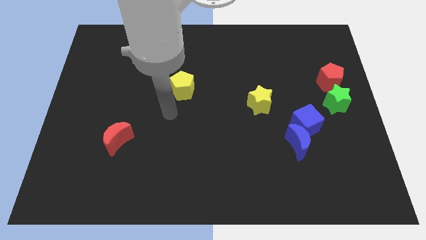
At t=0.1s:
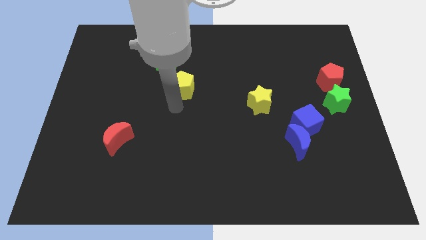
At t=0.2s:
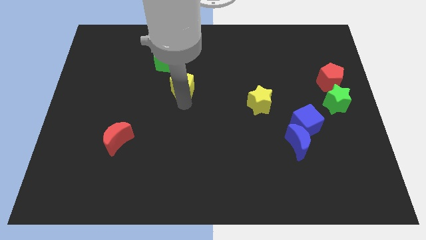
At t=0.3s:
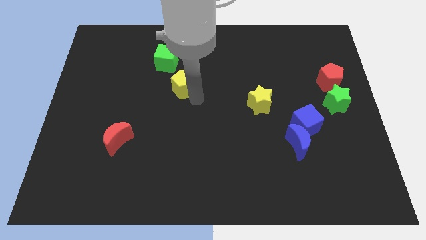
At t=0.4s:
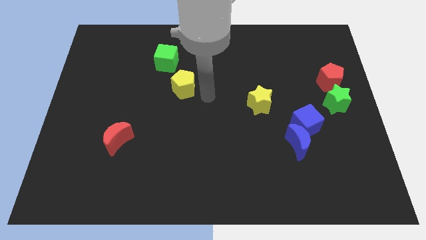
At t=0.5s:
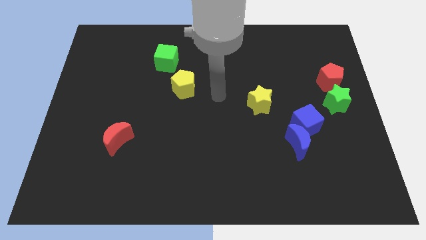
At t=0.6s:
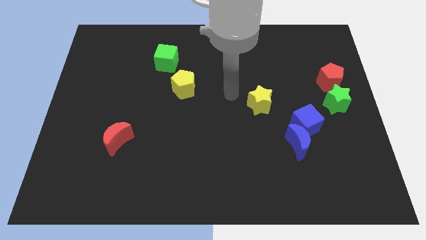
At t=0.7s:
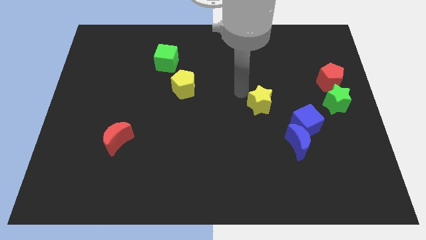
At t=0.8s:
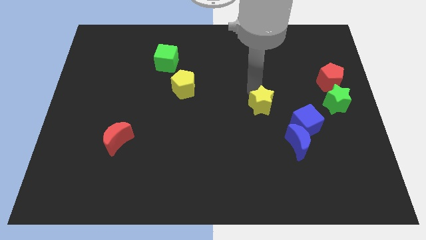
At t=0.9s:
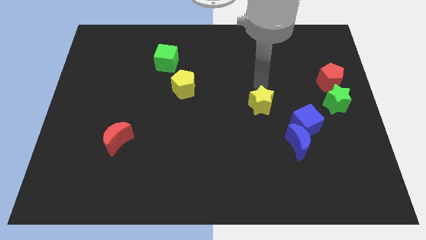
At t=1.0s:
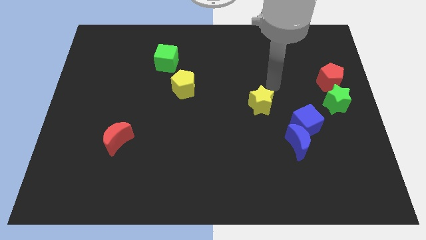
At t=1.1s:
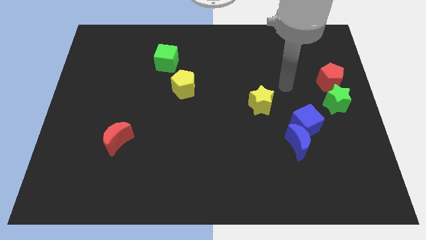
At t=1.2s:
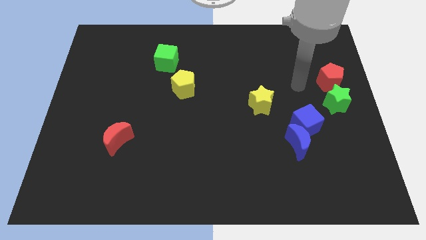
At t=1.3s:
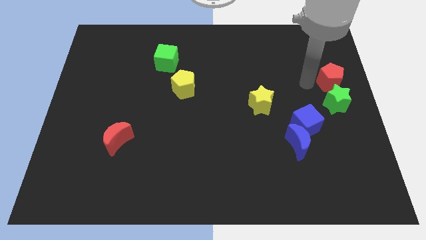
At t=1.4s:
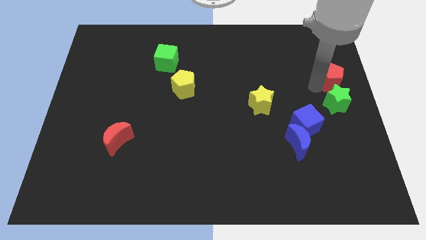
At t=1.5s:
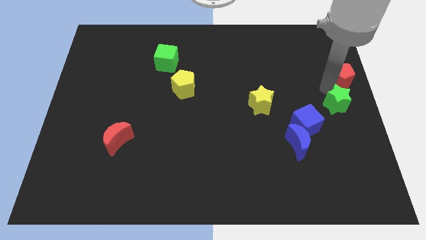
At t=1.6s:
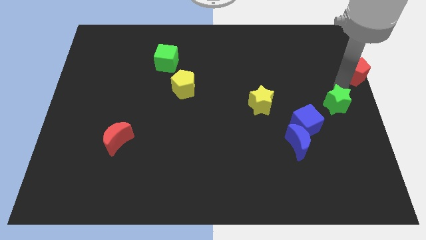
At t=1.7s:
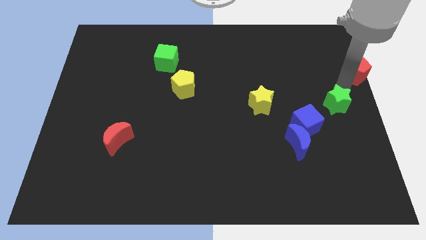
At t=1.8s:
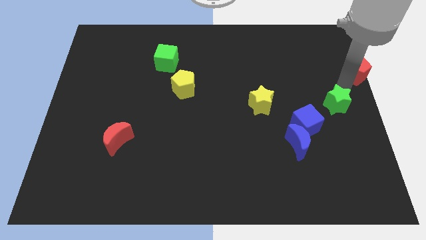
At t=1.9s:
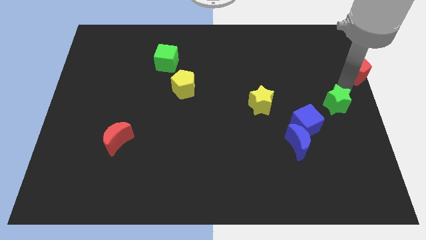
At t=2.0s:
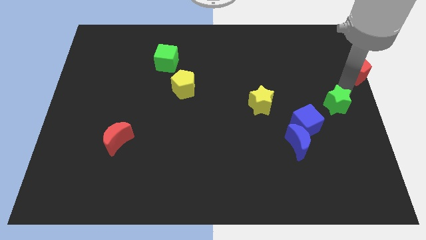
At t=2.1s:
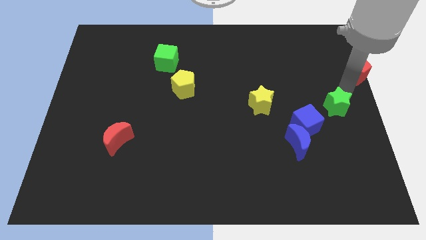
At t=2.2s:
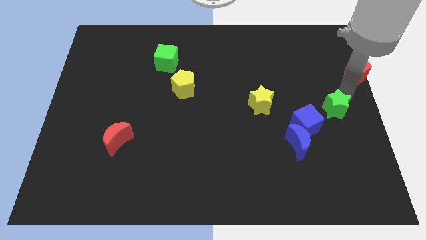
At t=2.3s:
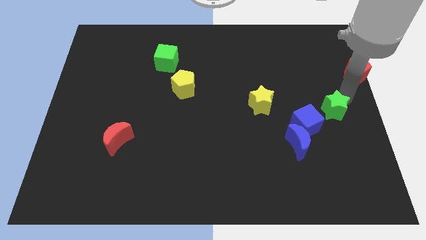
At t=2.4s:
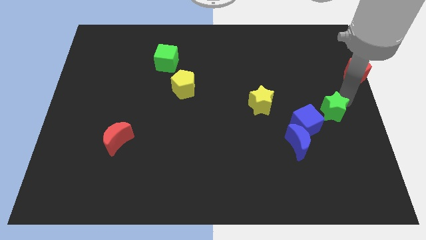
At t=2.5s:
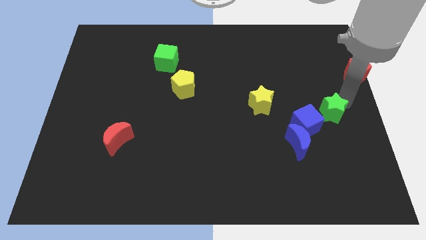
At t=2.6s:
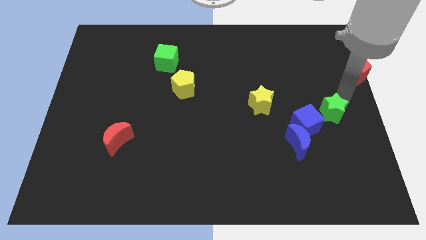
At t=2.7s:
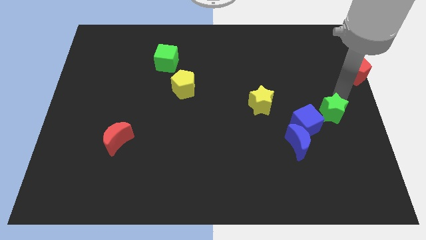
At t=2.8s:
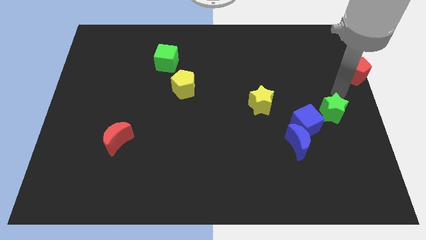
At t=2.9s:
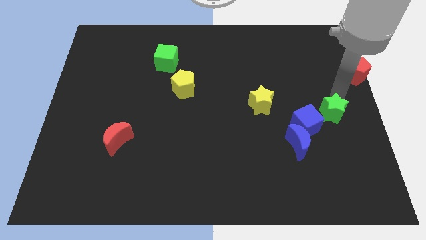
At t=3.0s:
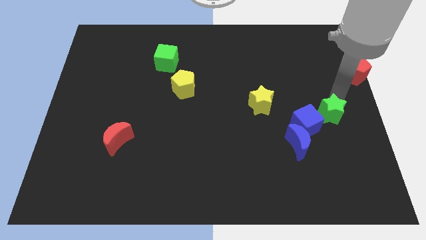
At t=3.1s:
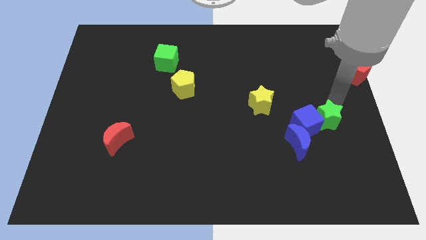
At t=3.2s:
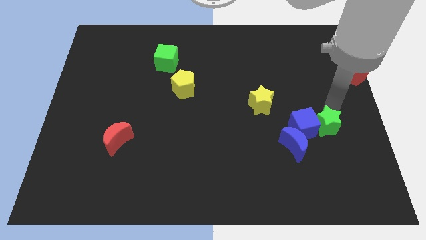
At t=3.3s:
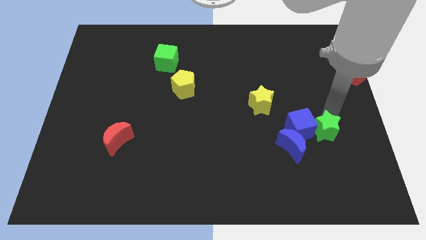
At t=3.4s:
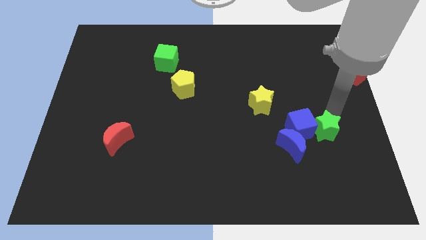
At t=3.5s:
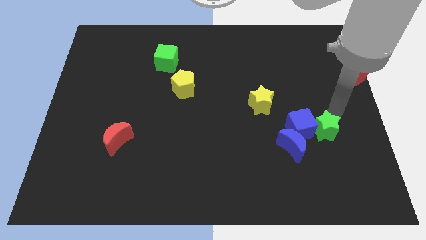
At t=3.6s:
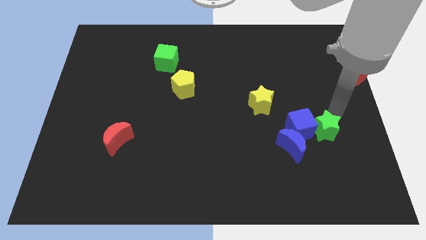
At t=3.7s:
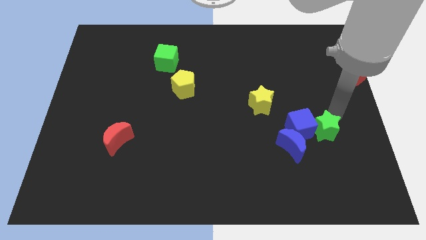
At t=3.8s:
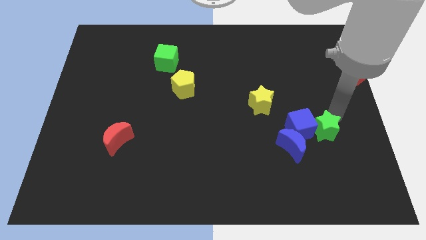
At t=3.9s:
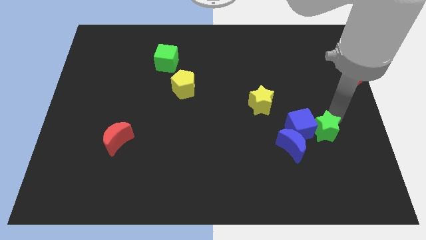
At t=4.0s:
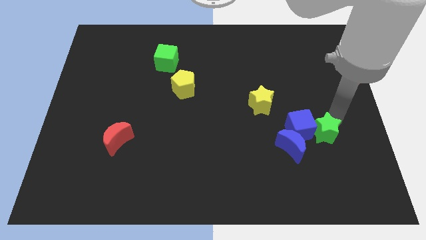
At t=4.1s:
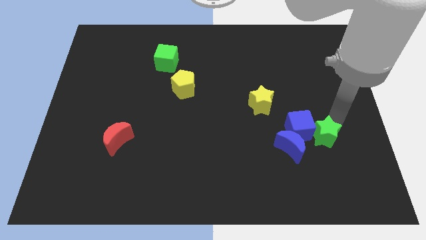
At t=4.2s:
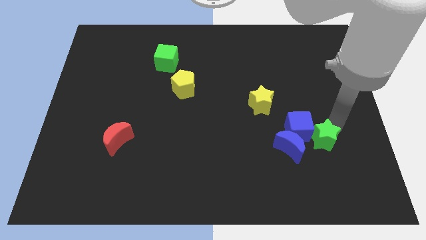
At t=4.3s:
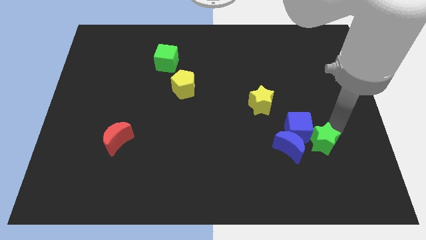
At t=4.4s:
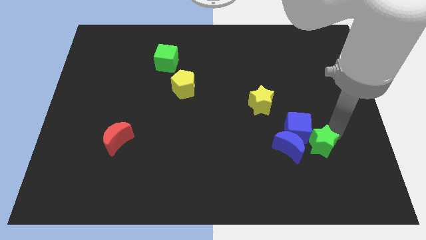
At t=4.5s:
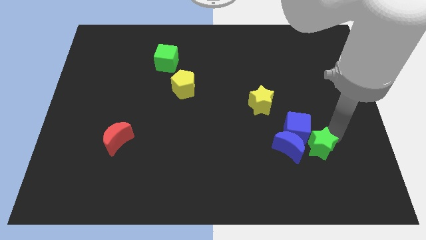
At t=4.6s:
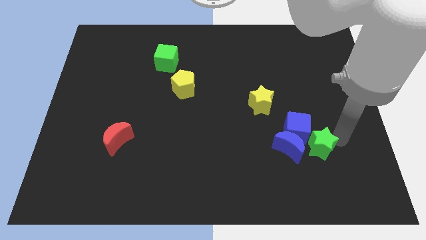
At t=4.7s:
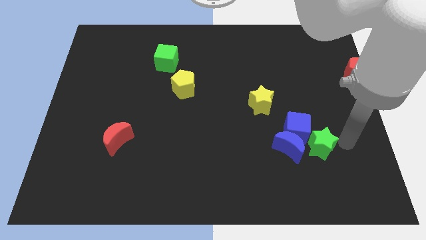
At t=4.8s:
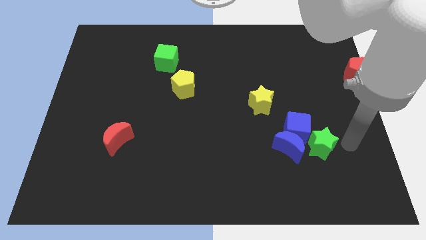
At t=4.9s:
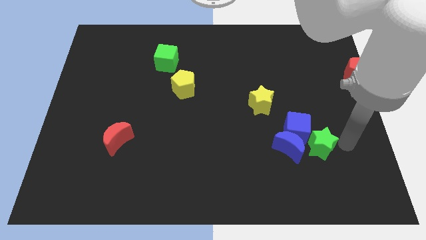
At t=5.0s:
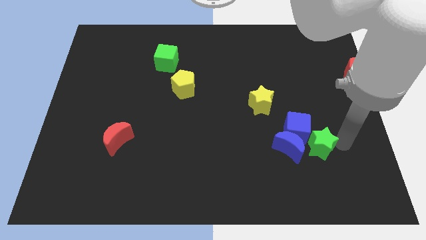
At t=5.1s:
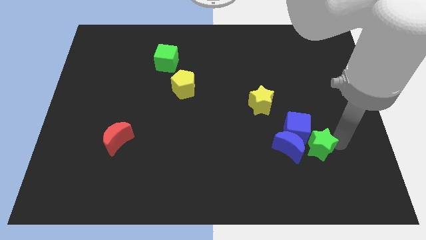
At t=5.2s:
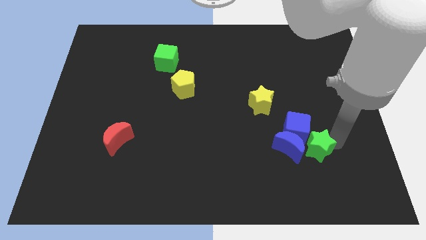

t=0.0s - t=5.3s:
put the green star towards the blue moon

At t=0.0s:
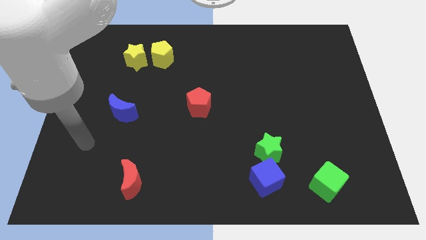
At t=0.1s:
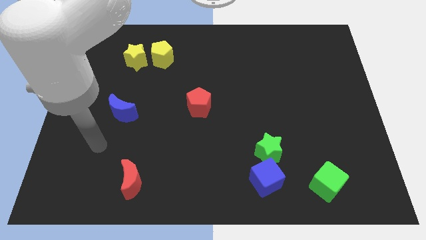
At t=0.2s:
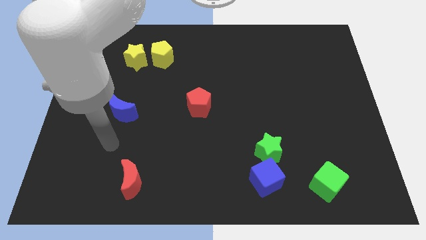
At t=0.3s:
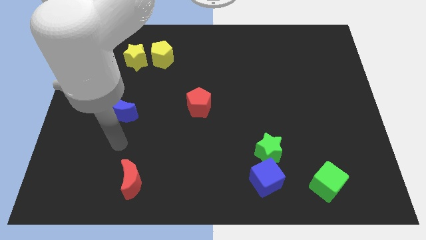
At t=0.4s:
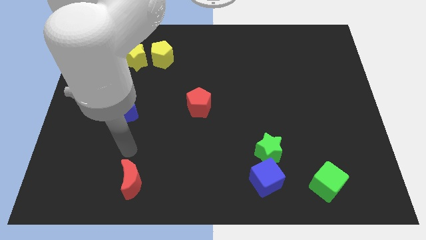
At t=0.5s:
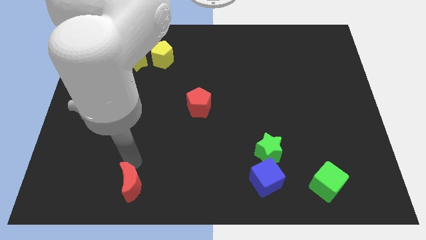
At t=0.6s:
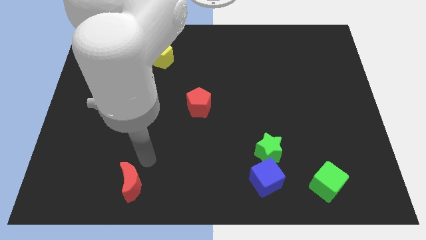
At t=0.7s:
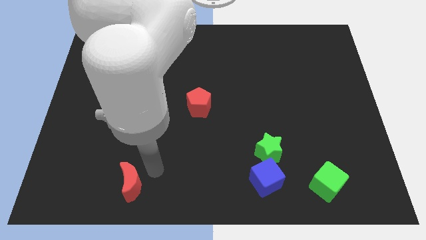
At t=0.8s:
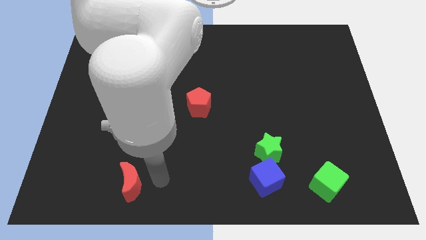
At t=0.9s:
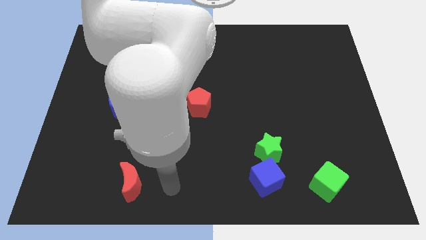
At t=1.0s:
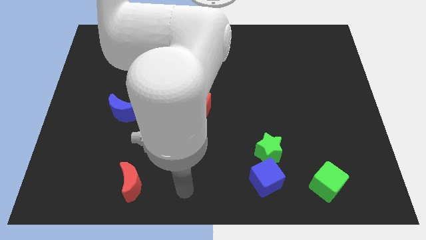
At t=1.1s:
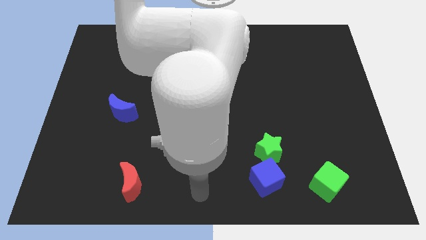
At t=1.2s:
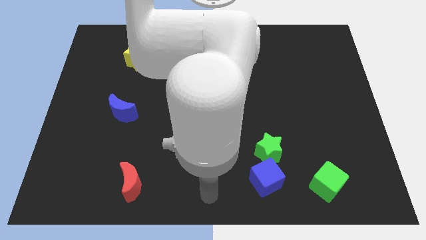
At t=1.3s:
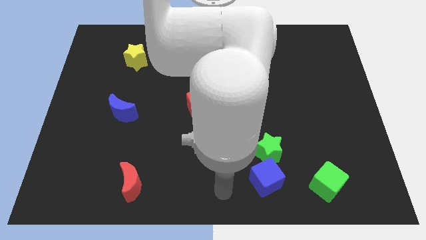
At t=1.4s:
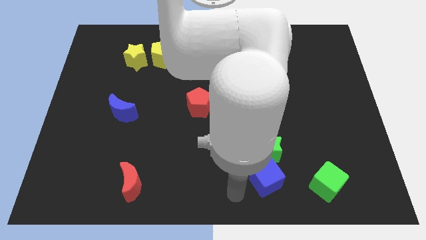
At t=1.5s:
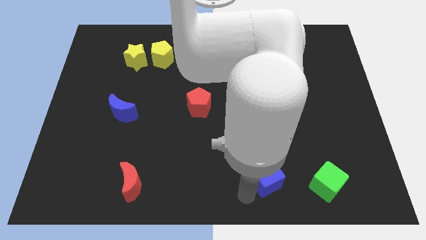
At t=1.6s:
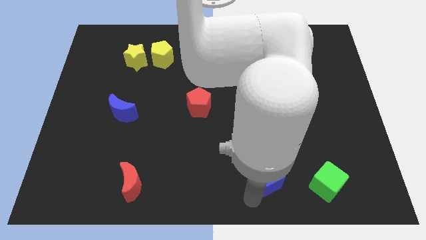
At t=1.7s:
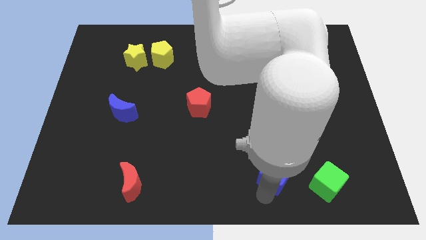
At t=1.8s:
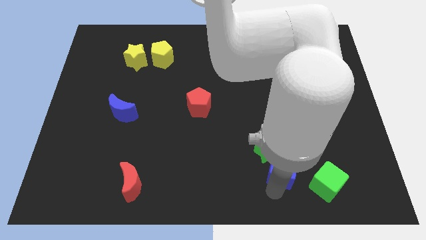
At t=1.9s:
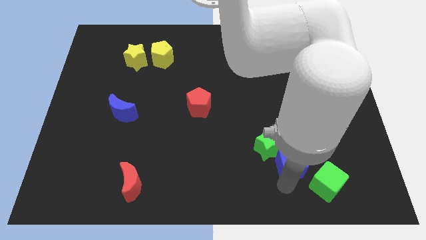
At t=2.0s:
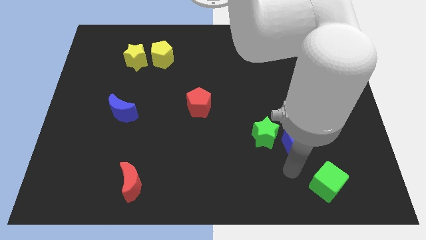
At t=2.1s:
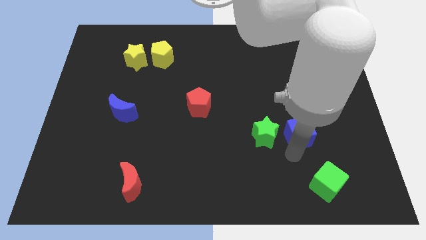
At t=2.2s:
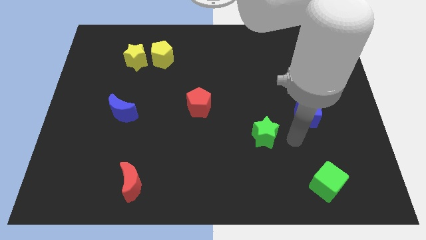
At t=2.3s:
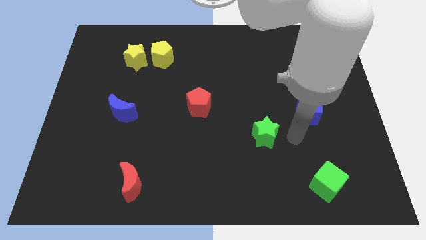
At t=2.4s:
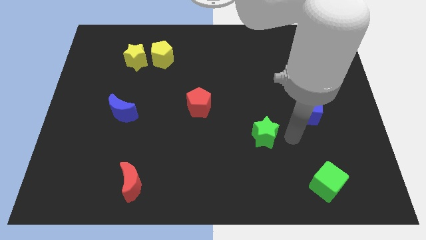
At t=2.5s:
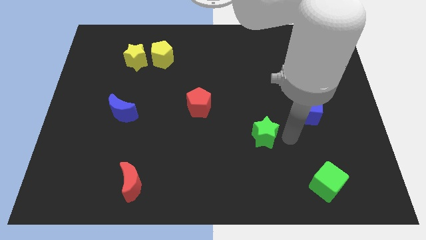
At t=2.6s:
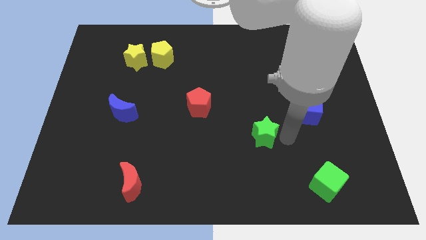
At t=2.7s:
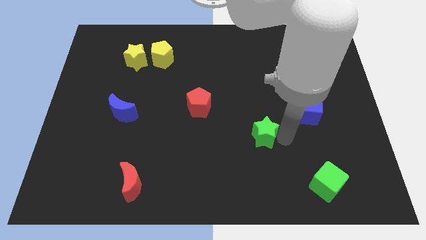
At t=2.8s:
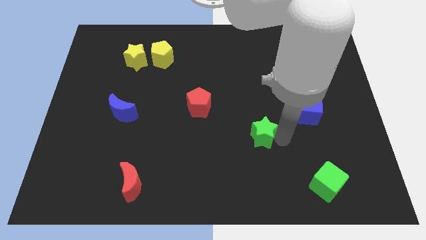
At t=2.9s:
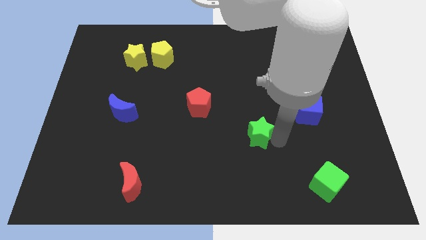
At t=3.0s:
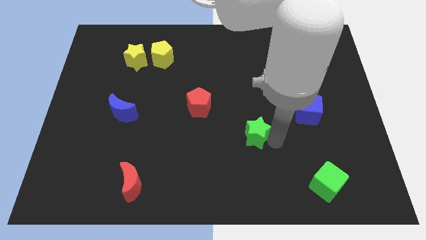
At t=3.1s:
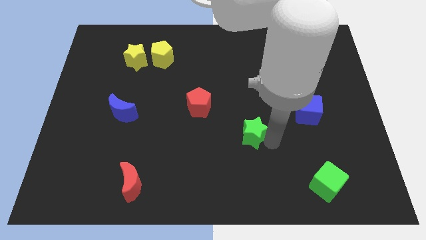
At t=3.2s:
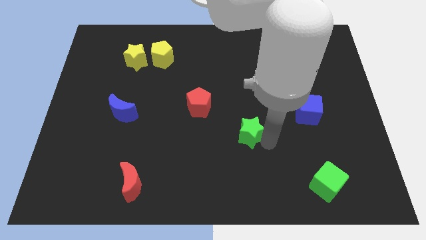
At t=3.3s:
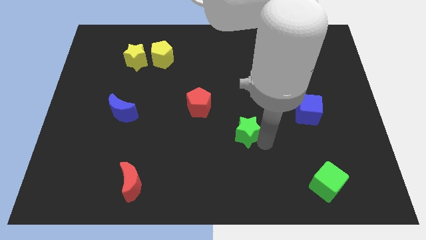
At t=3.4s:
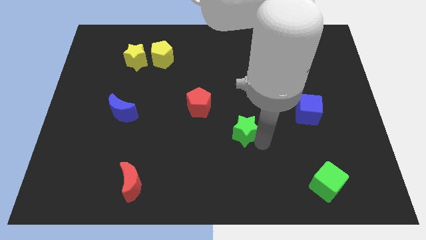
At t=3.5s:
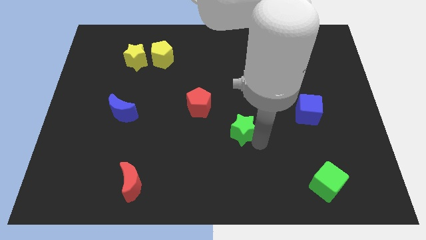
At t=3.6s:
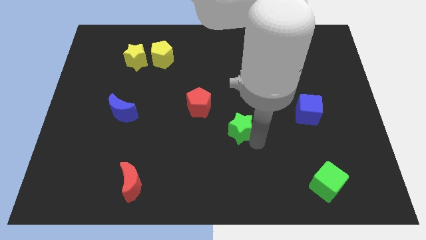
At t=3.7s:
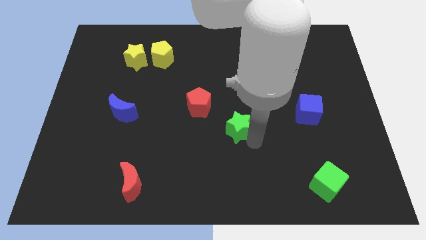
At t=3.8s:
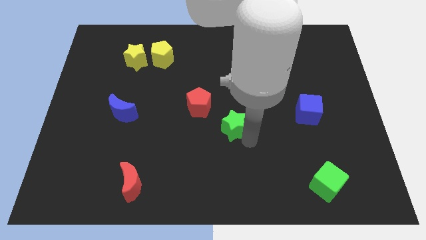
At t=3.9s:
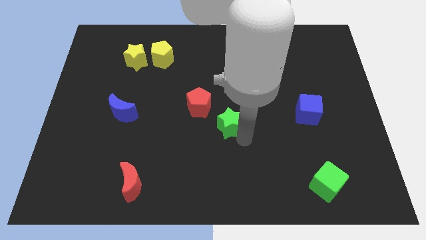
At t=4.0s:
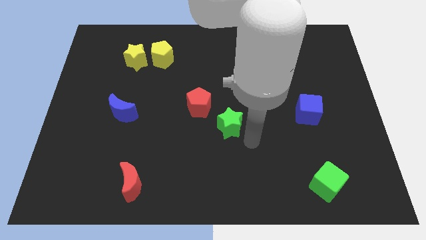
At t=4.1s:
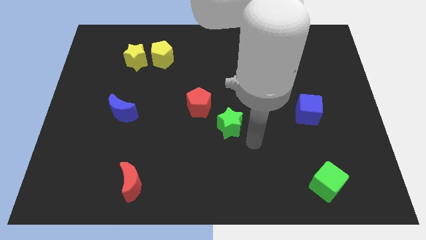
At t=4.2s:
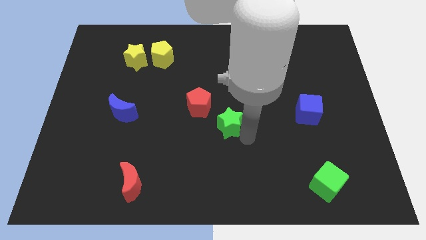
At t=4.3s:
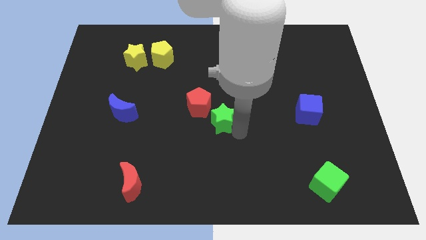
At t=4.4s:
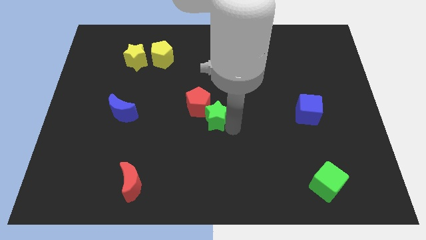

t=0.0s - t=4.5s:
push the green star next to the red pentagon
